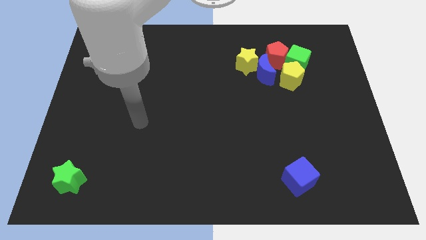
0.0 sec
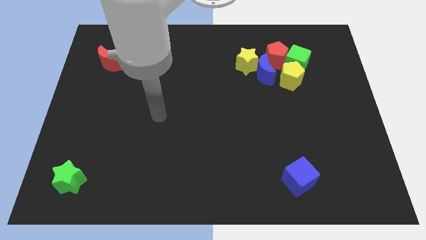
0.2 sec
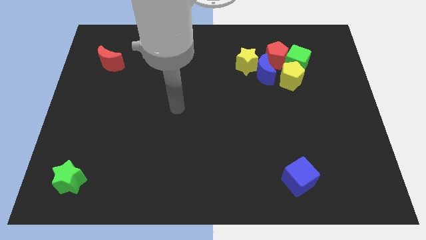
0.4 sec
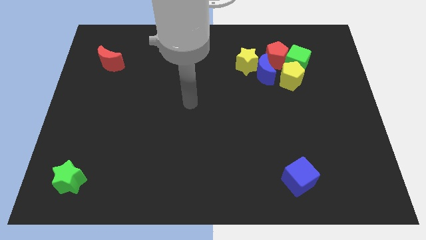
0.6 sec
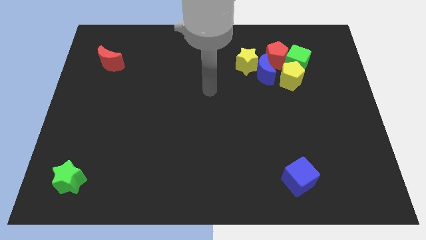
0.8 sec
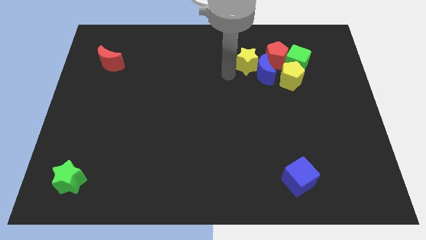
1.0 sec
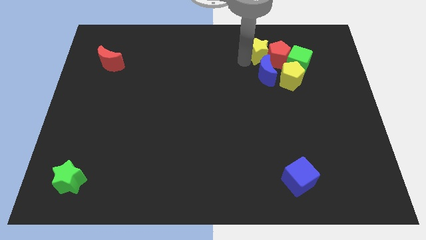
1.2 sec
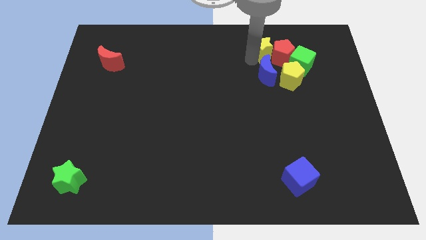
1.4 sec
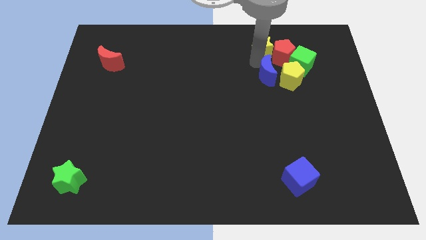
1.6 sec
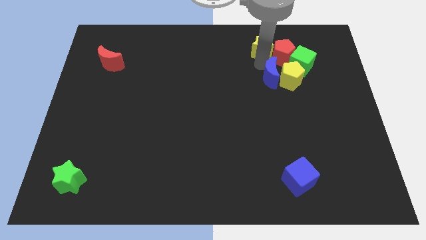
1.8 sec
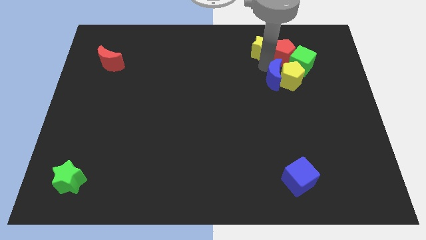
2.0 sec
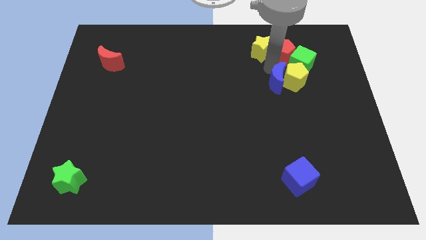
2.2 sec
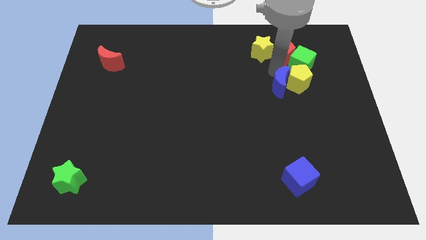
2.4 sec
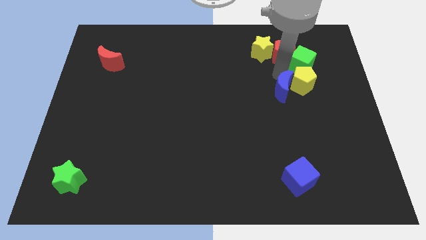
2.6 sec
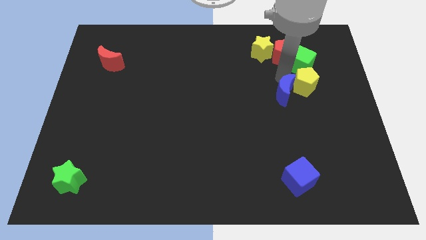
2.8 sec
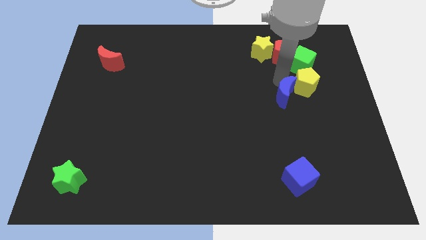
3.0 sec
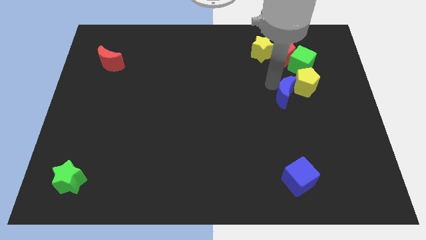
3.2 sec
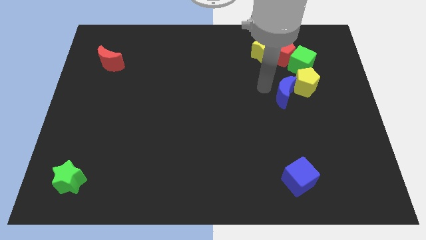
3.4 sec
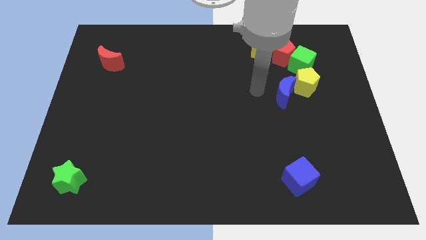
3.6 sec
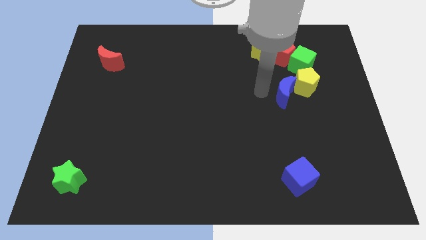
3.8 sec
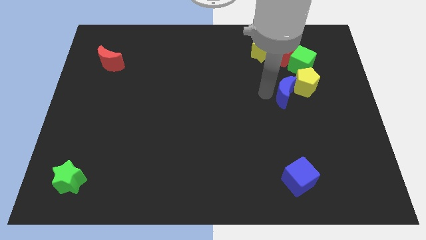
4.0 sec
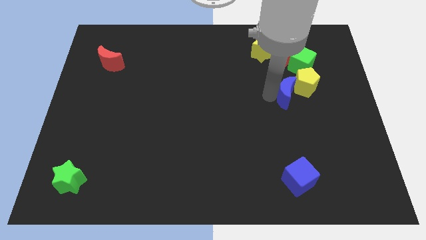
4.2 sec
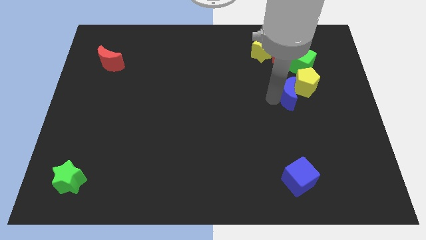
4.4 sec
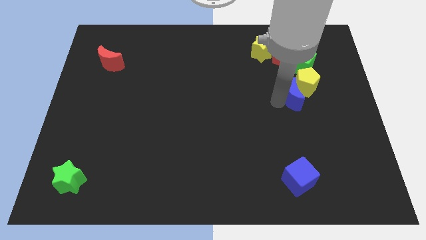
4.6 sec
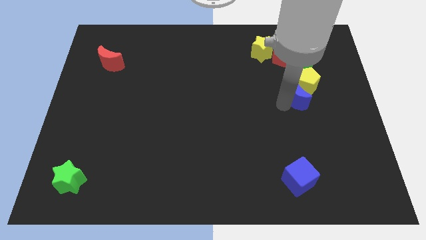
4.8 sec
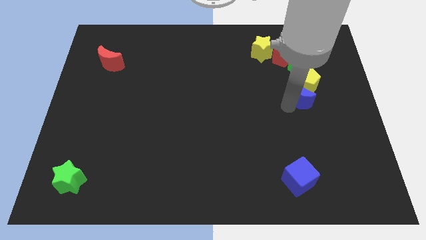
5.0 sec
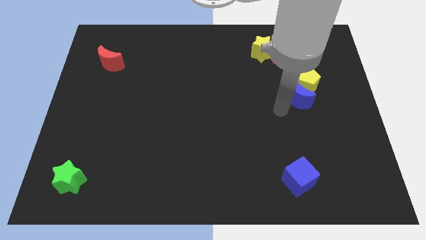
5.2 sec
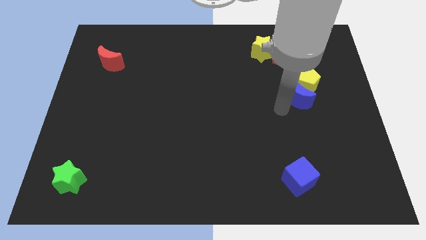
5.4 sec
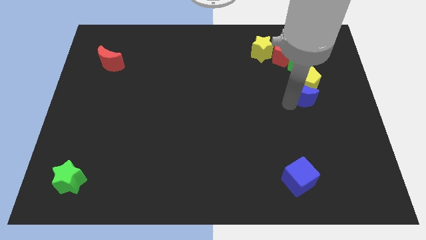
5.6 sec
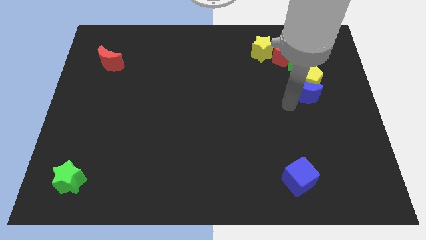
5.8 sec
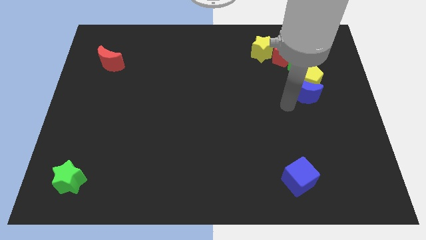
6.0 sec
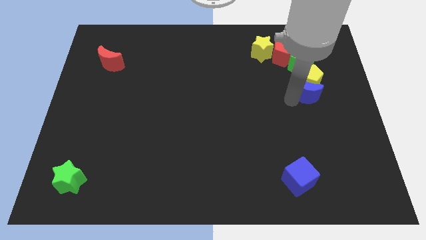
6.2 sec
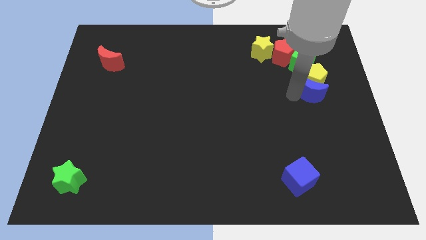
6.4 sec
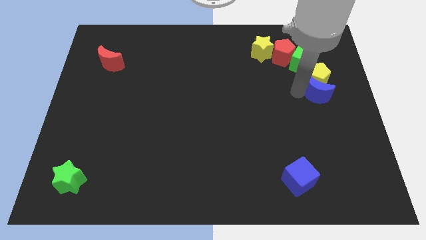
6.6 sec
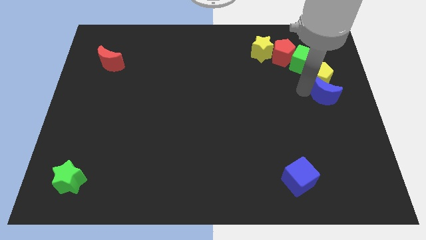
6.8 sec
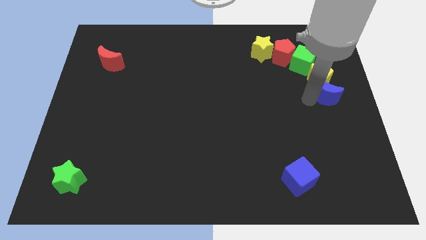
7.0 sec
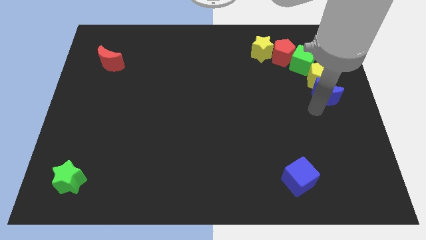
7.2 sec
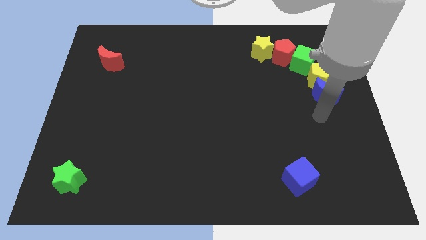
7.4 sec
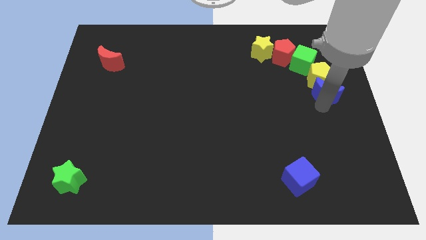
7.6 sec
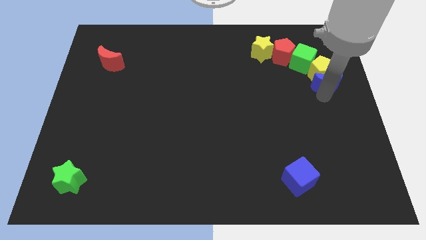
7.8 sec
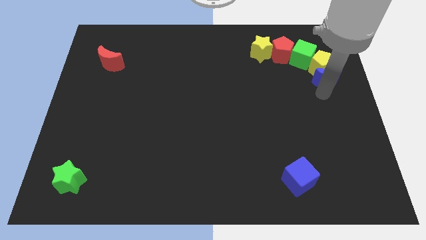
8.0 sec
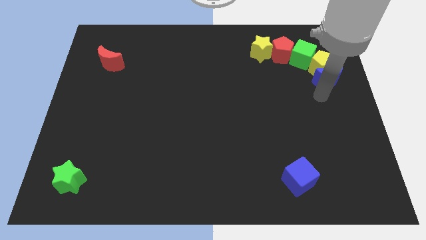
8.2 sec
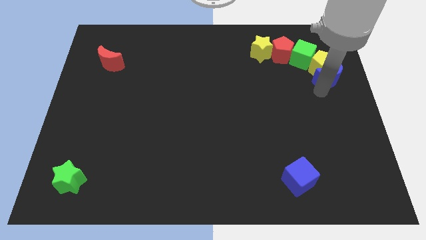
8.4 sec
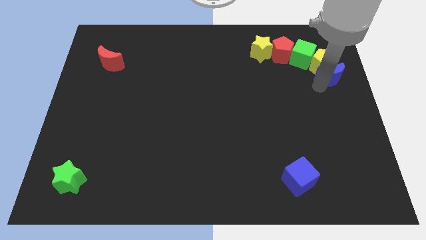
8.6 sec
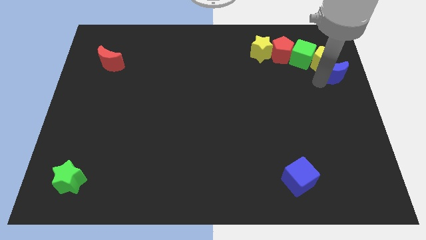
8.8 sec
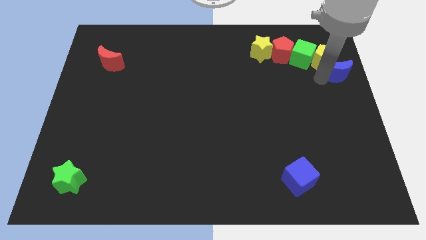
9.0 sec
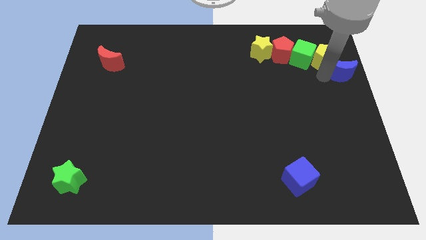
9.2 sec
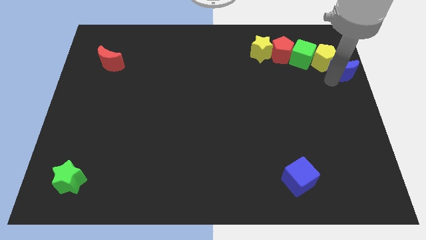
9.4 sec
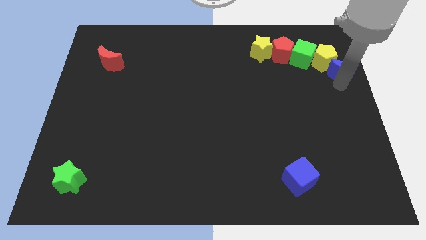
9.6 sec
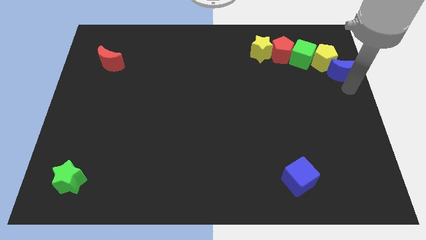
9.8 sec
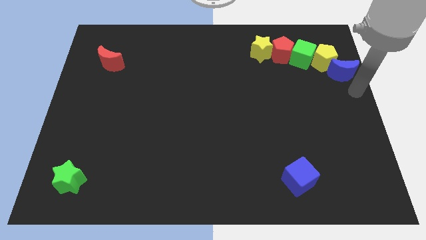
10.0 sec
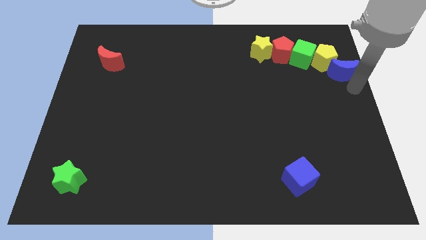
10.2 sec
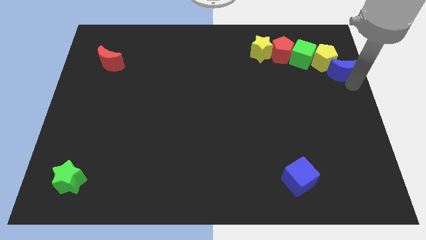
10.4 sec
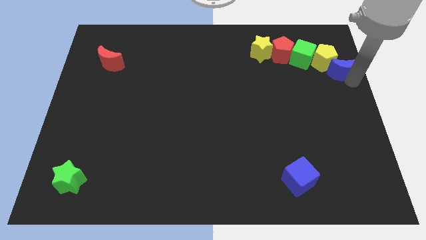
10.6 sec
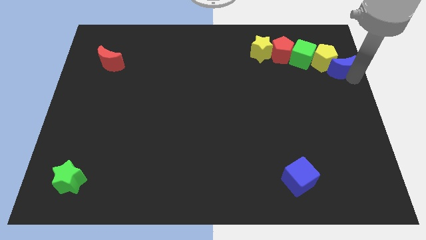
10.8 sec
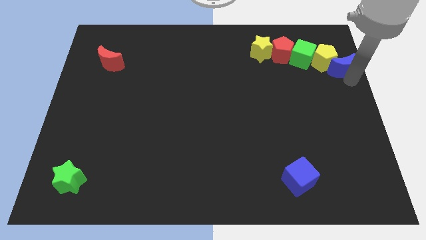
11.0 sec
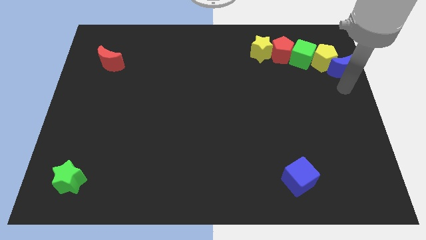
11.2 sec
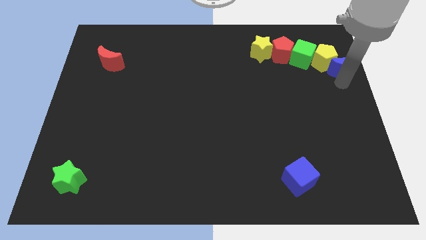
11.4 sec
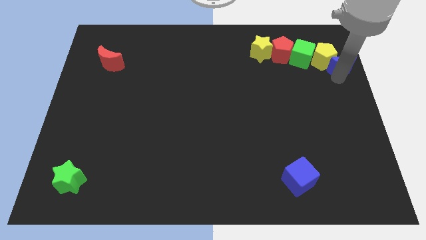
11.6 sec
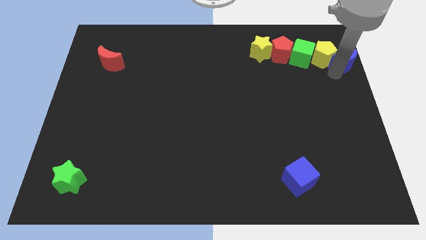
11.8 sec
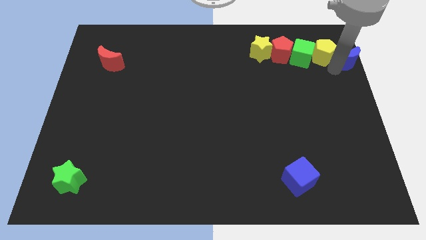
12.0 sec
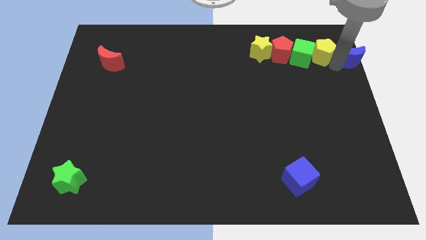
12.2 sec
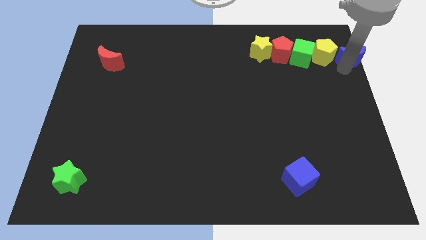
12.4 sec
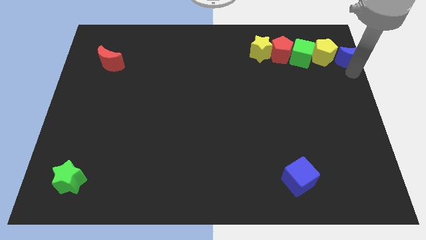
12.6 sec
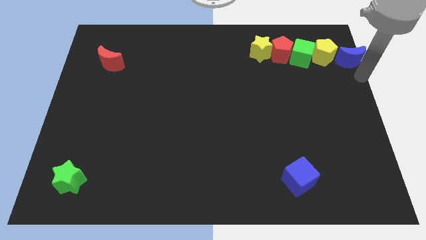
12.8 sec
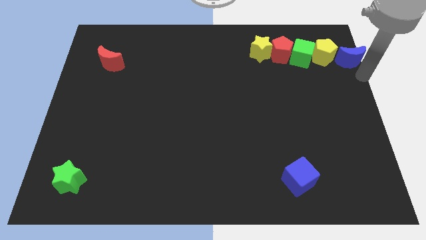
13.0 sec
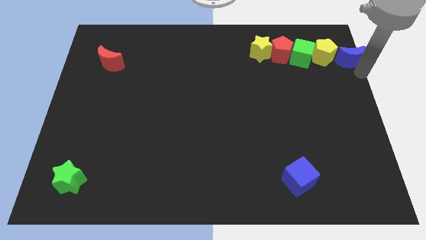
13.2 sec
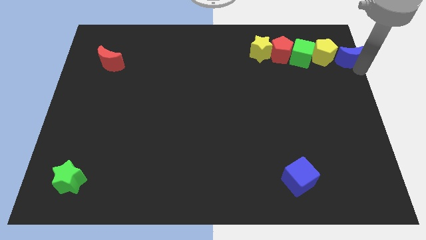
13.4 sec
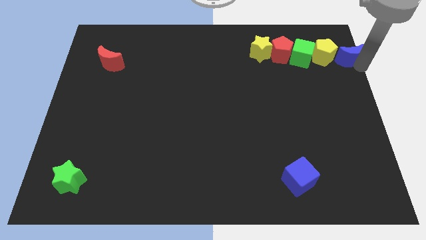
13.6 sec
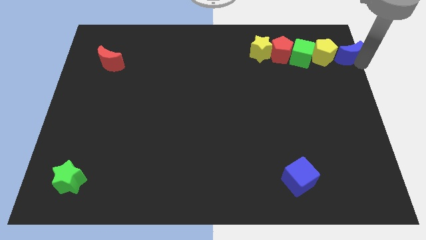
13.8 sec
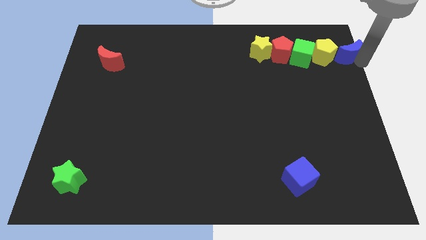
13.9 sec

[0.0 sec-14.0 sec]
slide the blue moon to the upper right corner

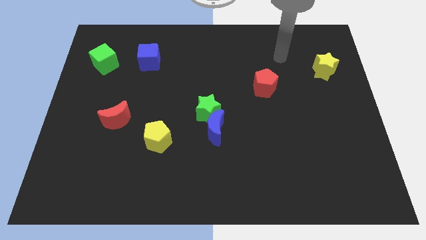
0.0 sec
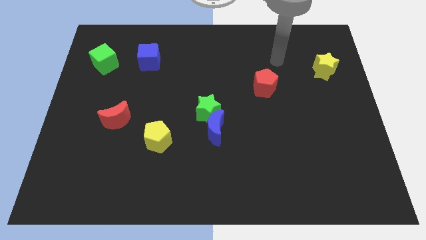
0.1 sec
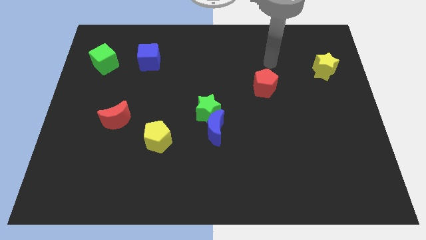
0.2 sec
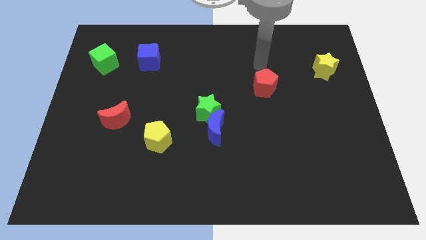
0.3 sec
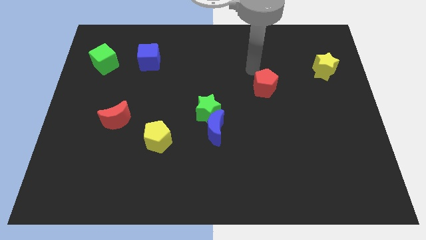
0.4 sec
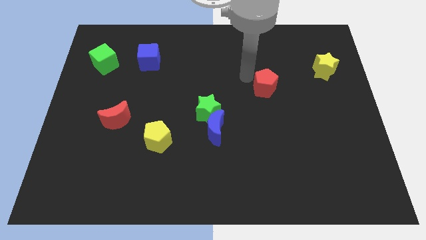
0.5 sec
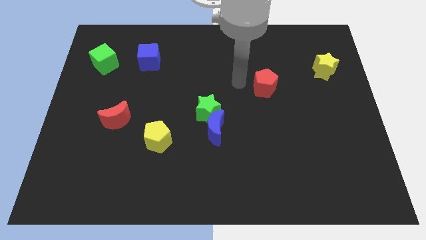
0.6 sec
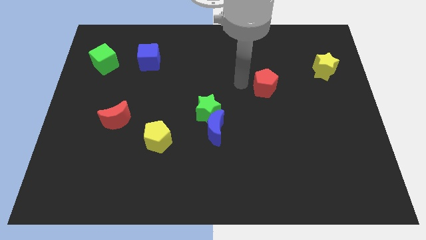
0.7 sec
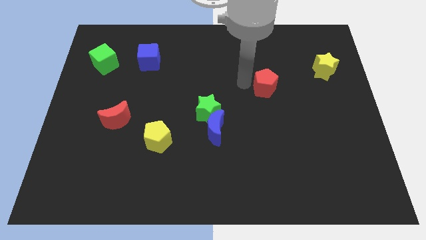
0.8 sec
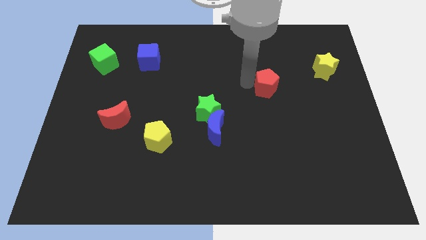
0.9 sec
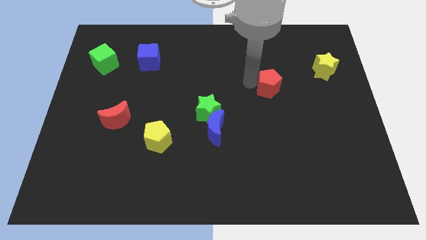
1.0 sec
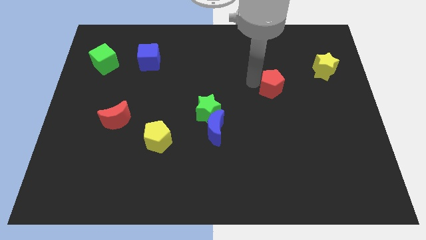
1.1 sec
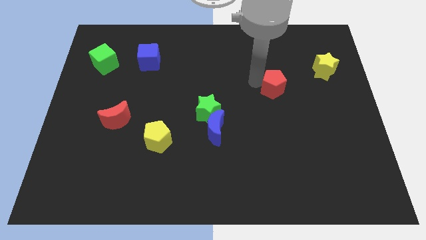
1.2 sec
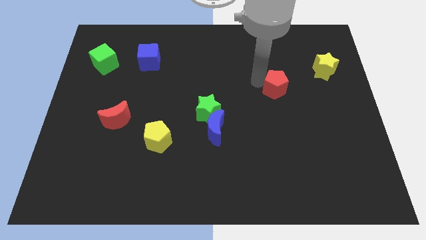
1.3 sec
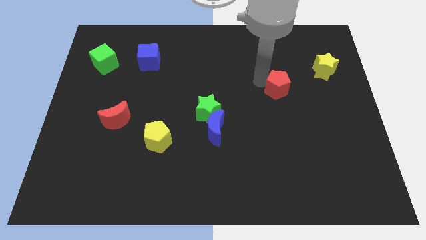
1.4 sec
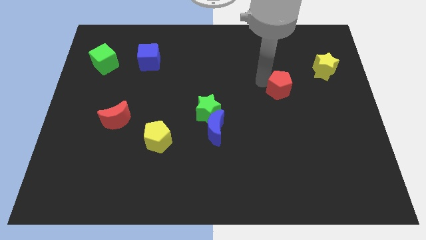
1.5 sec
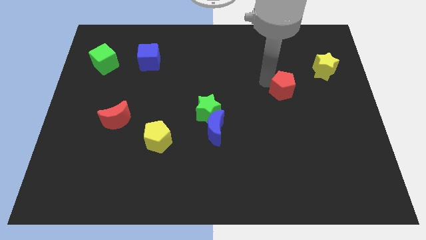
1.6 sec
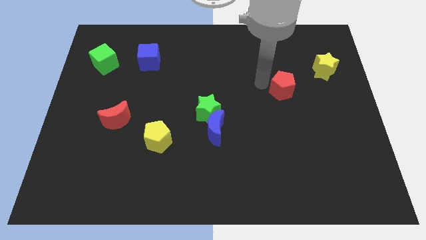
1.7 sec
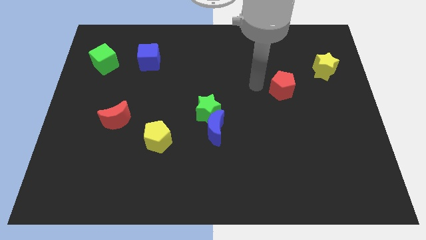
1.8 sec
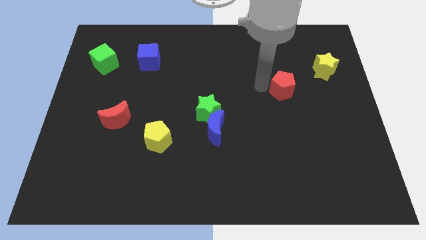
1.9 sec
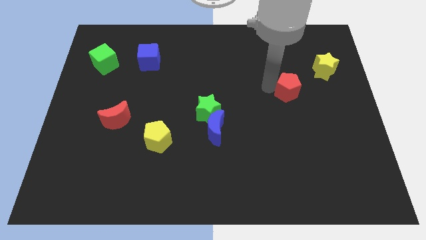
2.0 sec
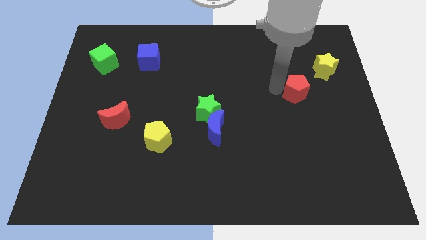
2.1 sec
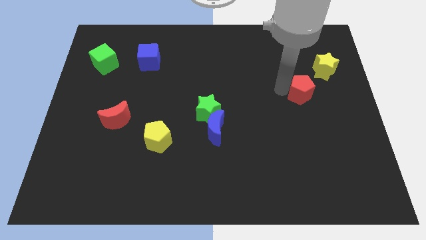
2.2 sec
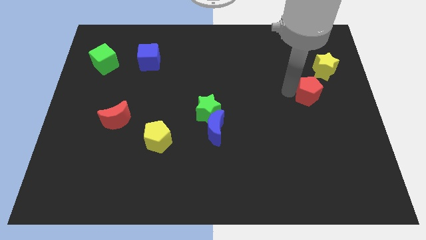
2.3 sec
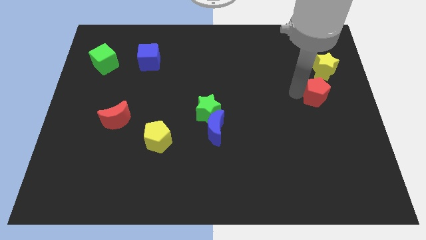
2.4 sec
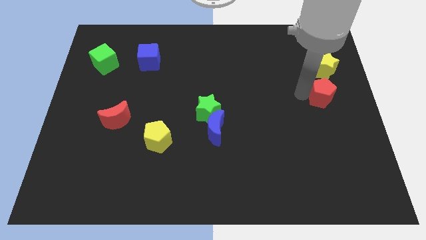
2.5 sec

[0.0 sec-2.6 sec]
push the red pentagon to the right side
